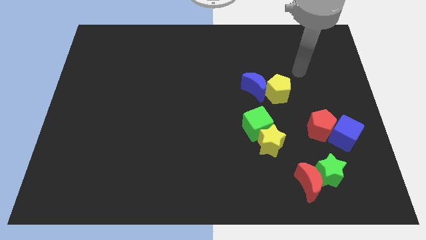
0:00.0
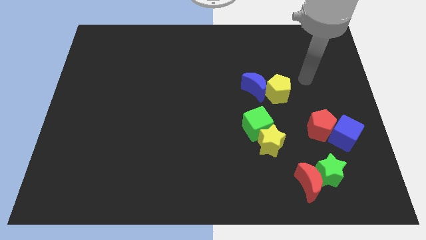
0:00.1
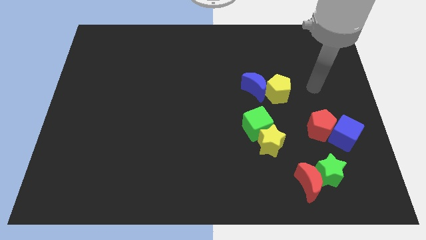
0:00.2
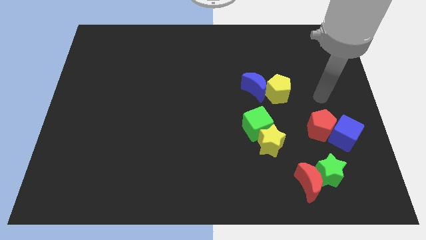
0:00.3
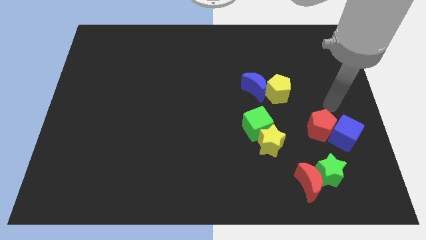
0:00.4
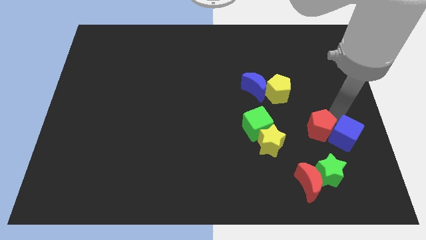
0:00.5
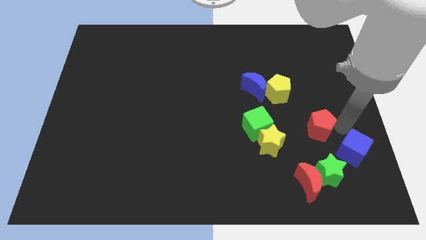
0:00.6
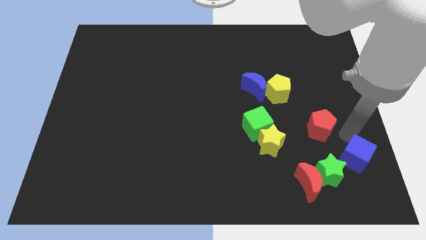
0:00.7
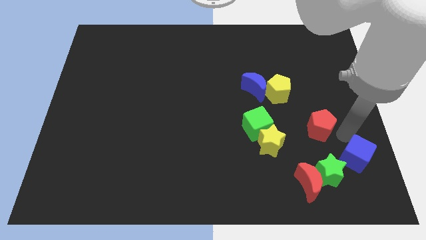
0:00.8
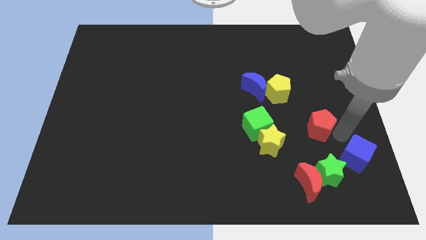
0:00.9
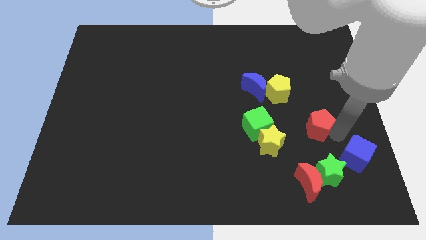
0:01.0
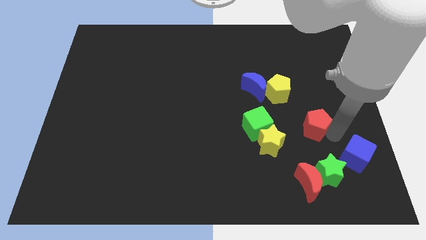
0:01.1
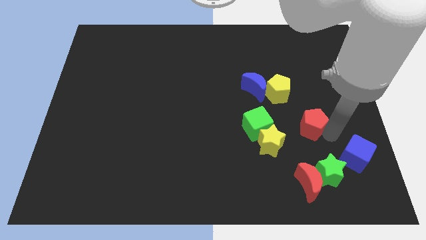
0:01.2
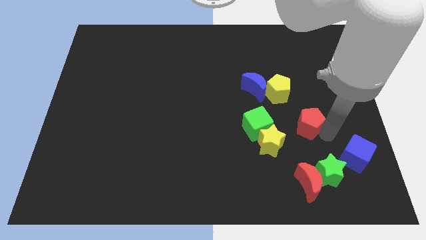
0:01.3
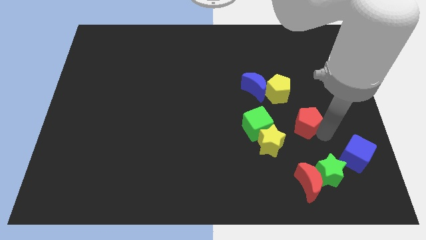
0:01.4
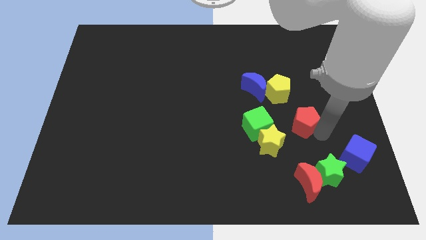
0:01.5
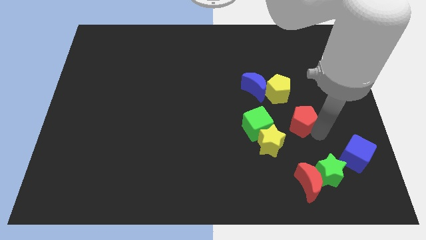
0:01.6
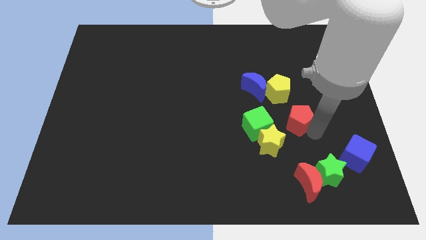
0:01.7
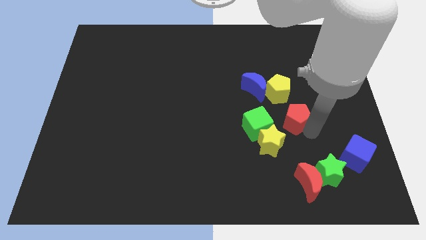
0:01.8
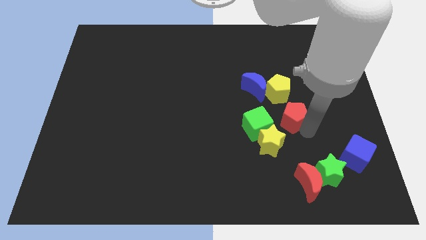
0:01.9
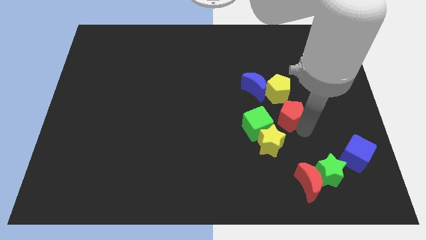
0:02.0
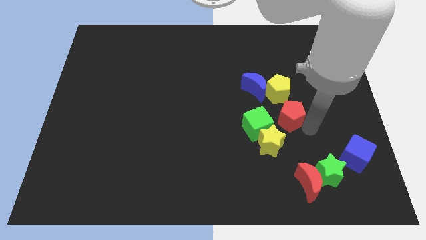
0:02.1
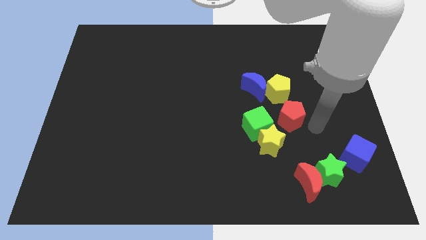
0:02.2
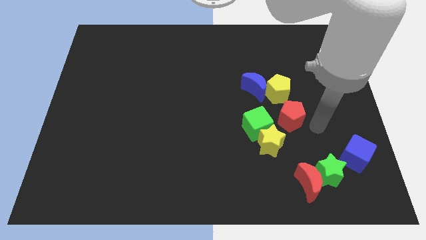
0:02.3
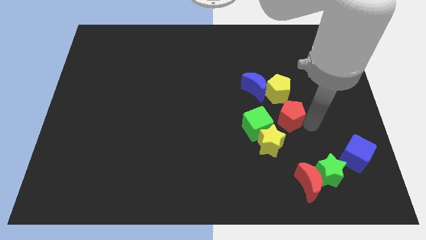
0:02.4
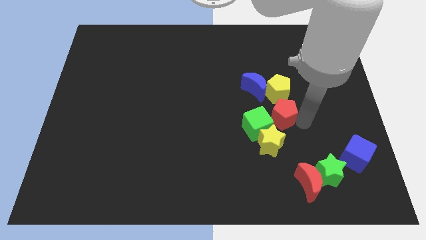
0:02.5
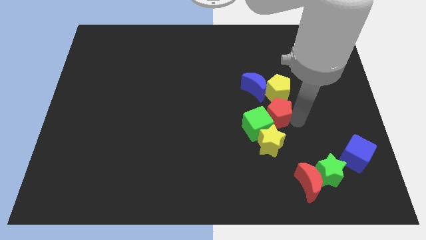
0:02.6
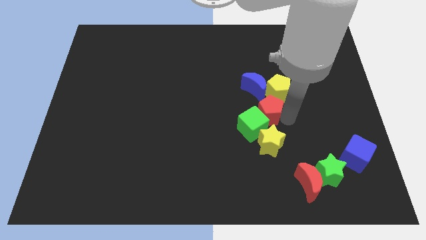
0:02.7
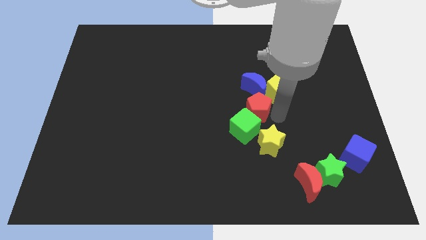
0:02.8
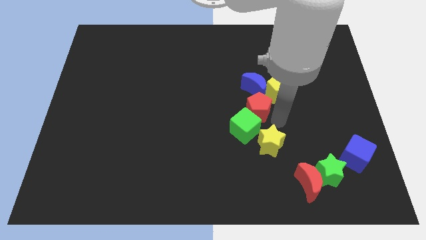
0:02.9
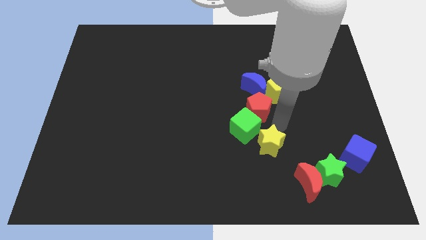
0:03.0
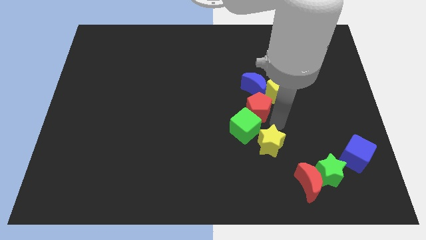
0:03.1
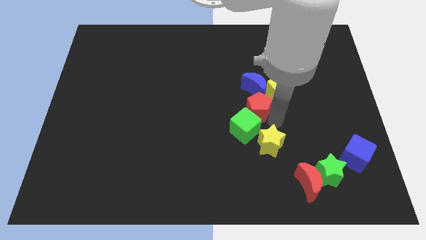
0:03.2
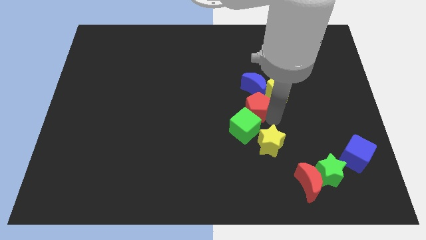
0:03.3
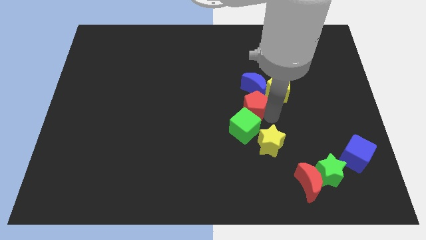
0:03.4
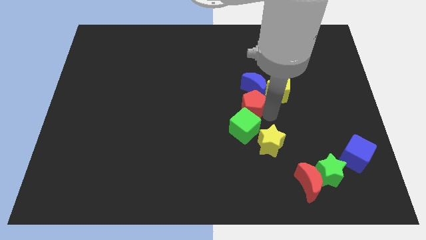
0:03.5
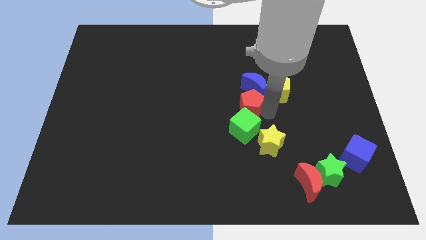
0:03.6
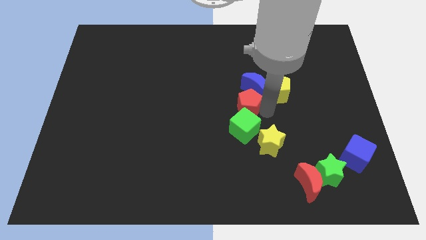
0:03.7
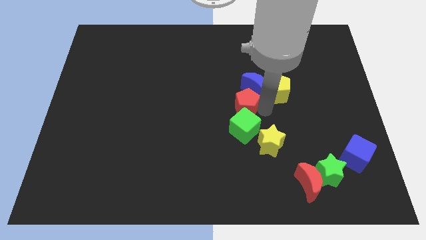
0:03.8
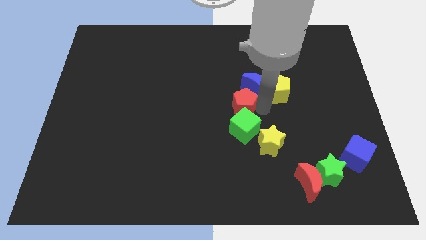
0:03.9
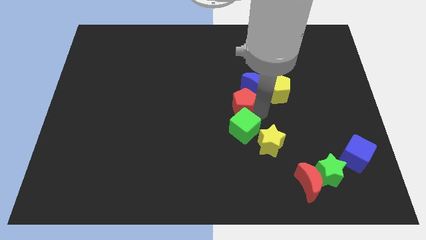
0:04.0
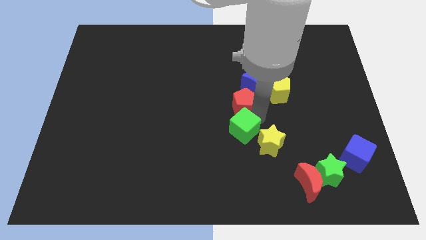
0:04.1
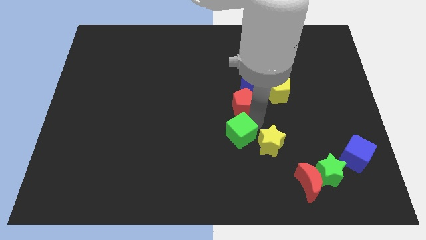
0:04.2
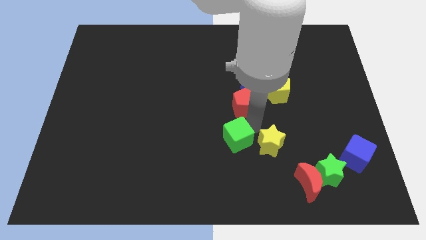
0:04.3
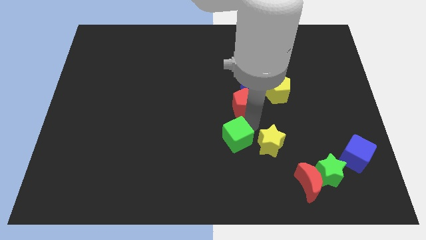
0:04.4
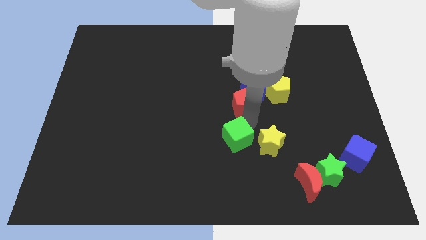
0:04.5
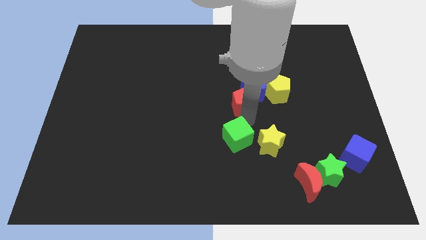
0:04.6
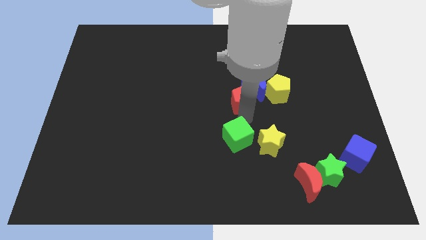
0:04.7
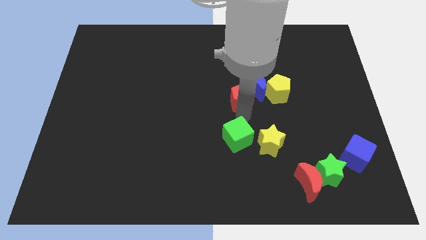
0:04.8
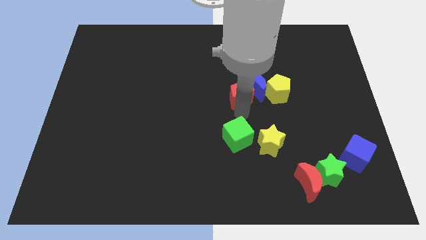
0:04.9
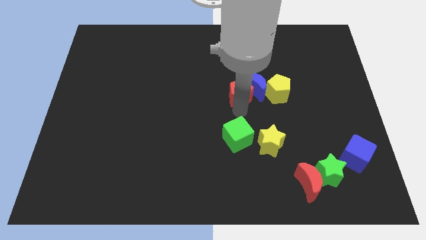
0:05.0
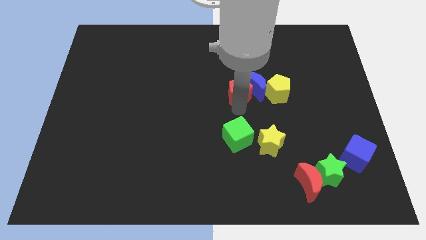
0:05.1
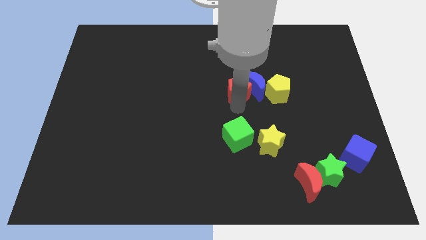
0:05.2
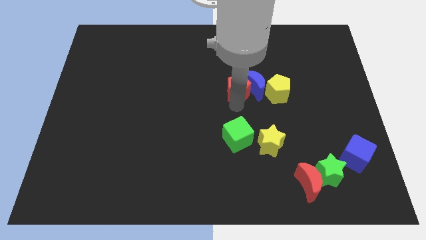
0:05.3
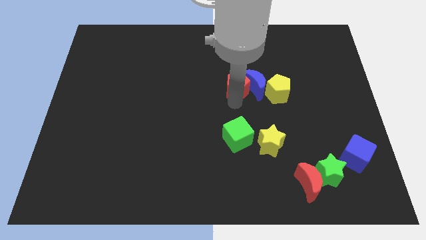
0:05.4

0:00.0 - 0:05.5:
push the red pentagon upwards and to the left

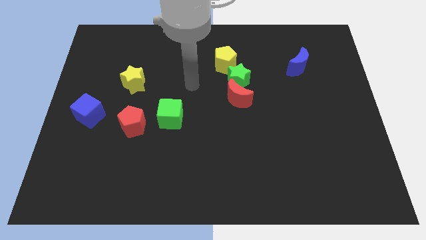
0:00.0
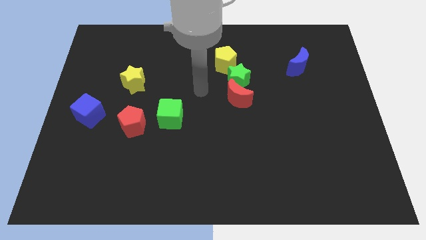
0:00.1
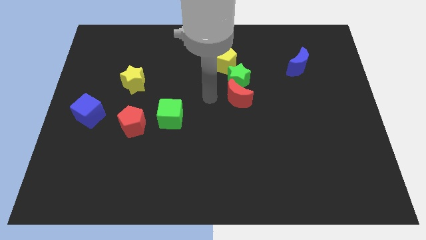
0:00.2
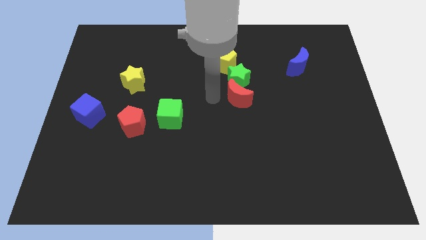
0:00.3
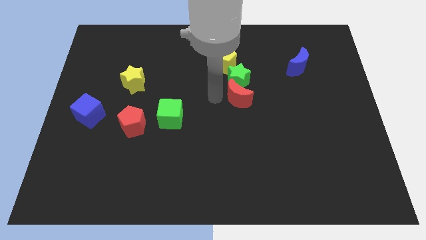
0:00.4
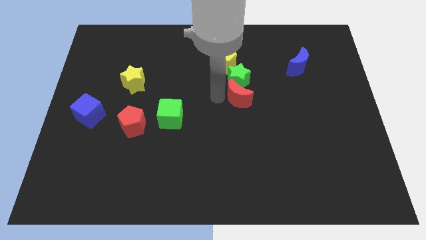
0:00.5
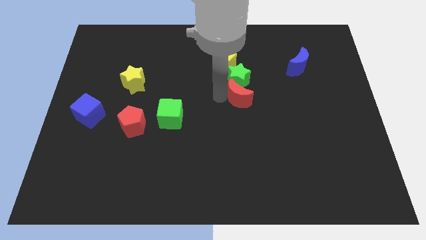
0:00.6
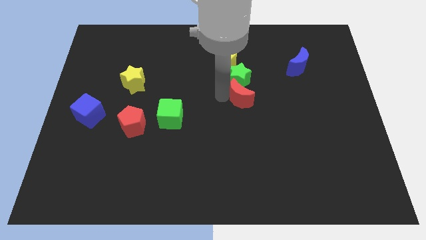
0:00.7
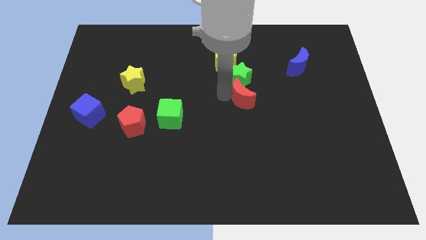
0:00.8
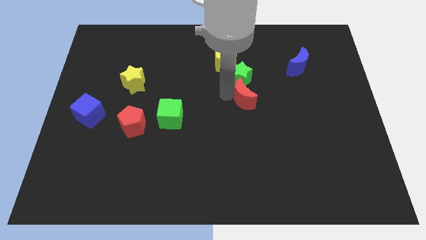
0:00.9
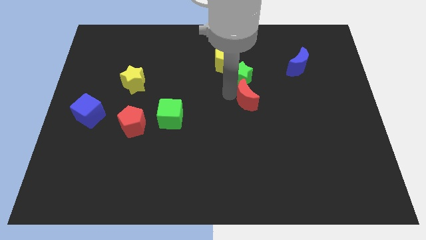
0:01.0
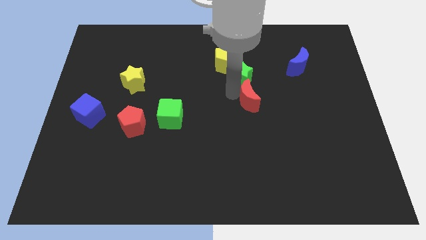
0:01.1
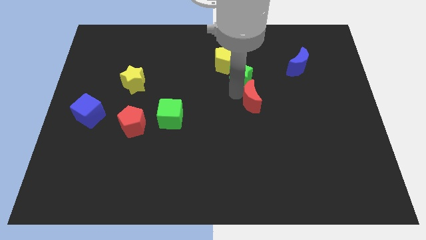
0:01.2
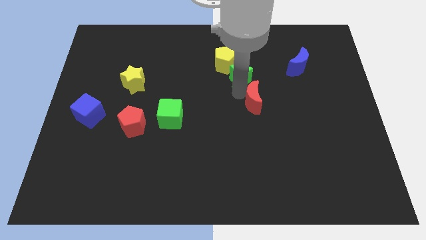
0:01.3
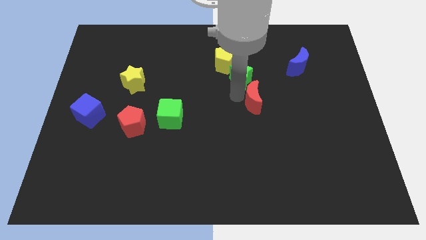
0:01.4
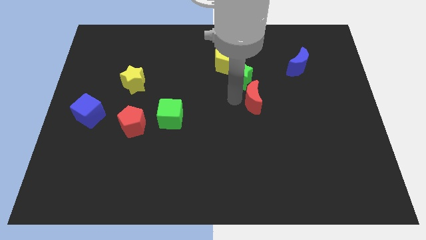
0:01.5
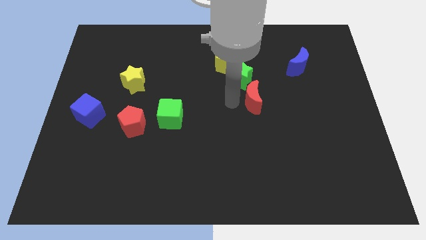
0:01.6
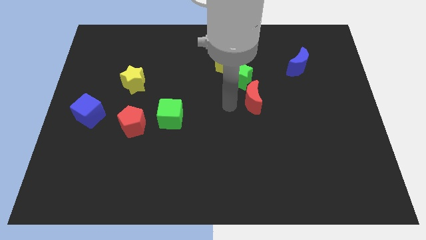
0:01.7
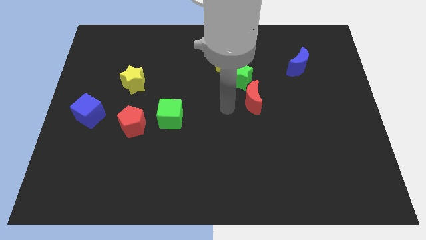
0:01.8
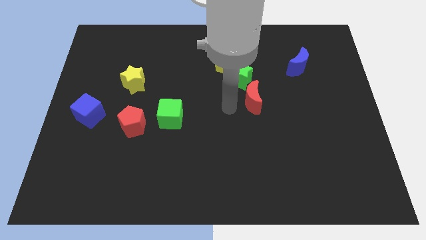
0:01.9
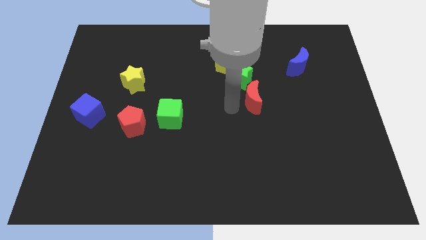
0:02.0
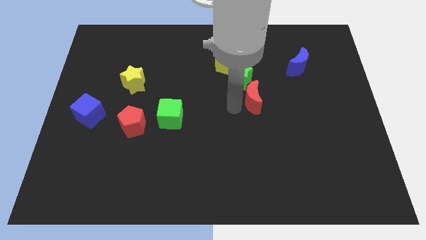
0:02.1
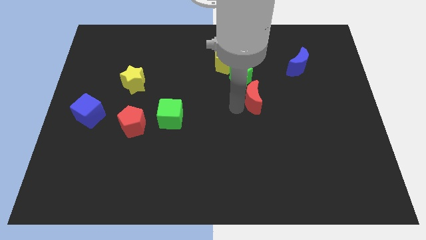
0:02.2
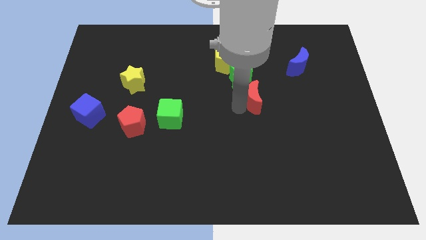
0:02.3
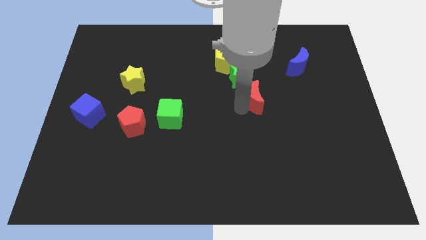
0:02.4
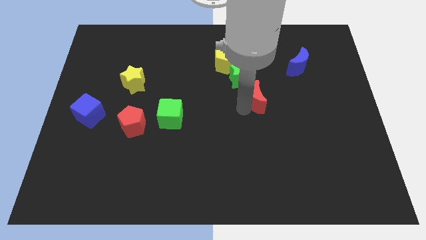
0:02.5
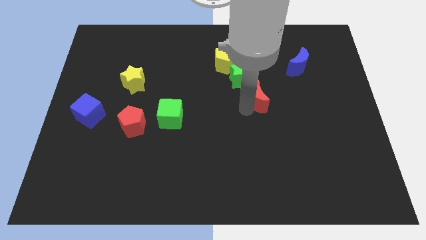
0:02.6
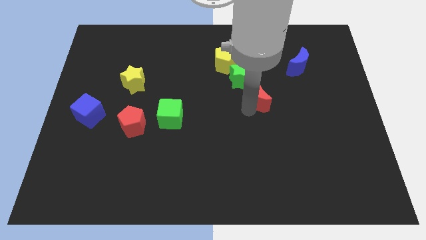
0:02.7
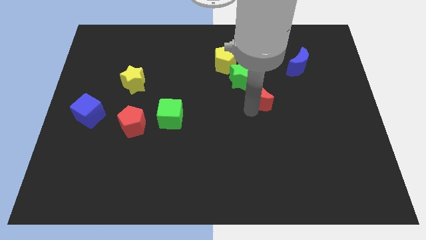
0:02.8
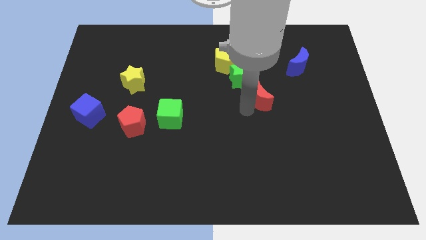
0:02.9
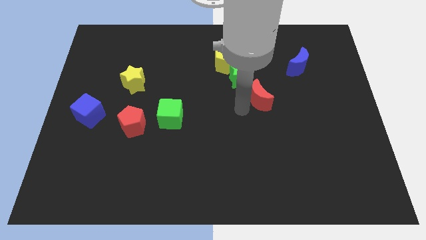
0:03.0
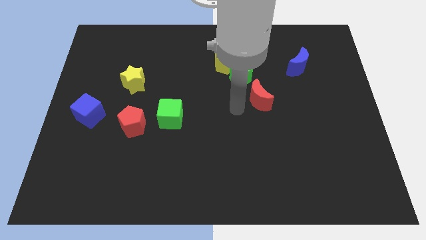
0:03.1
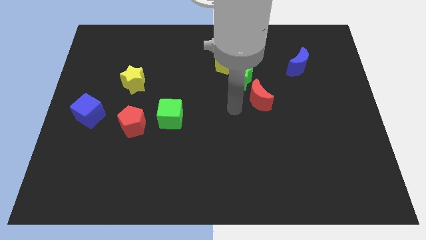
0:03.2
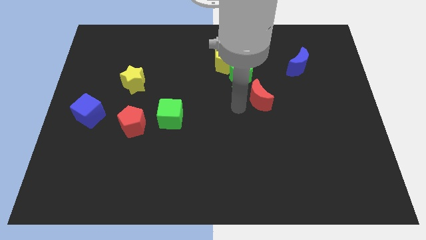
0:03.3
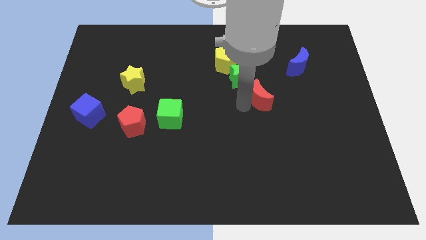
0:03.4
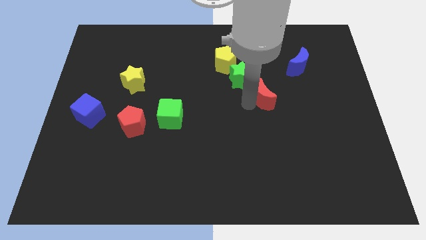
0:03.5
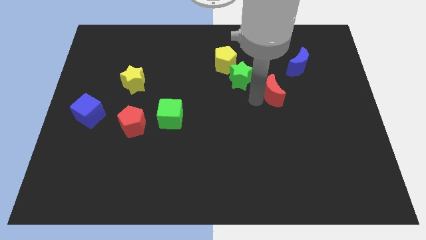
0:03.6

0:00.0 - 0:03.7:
move the red moon a little to the right
